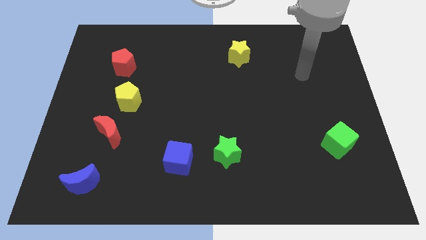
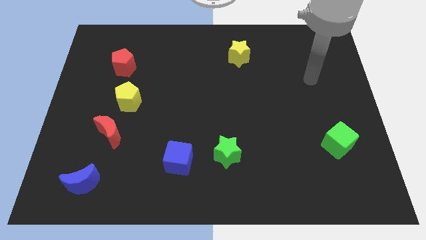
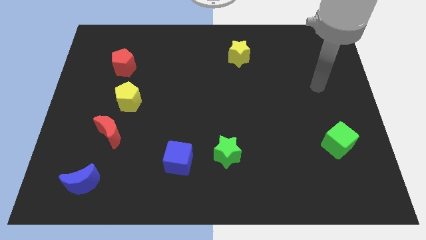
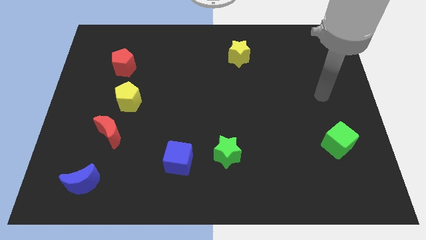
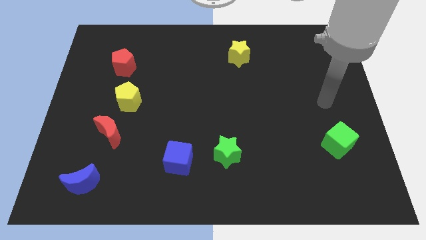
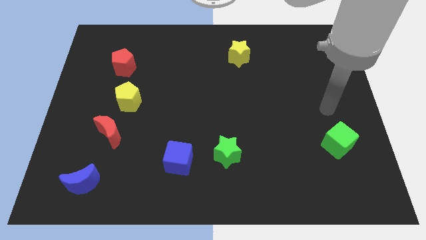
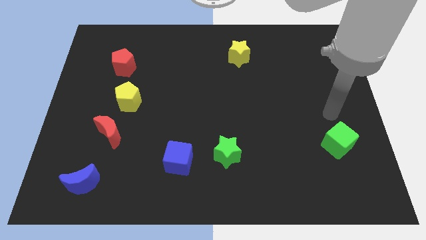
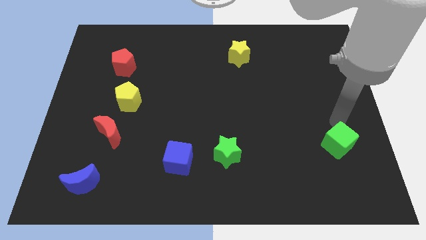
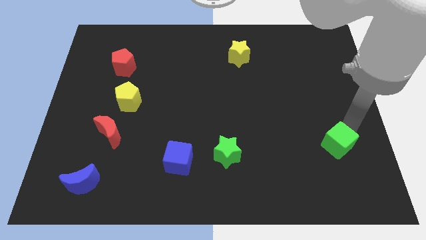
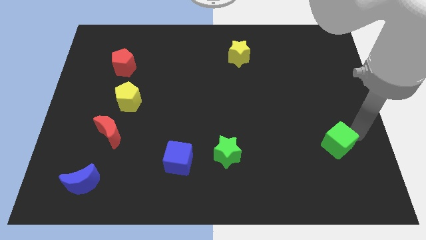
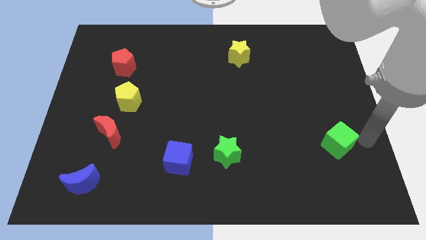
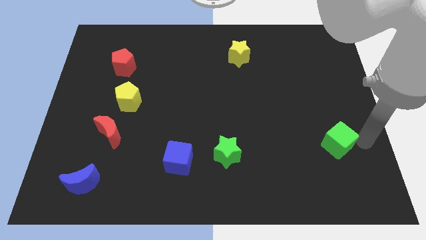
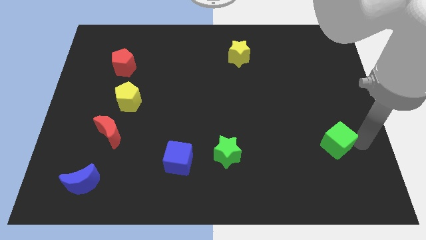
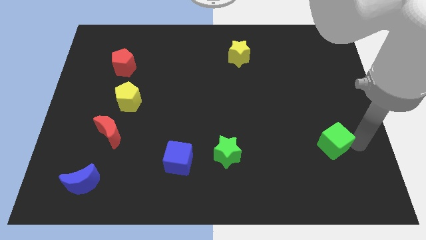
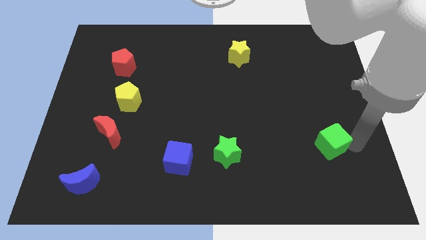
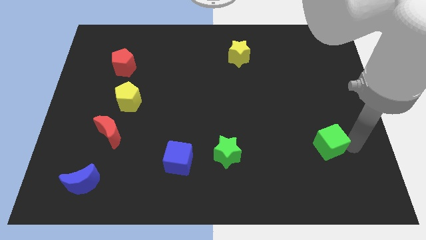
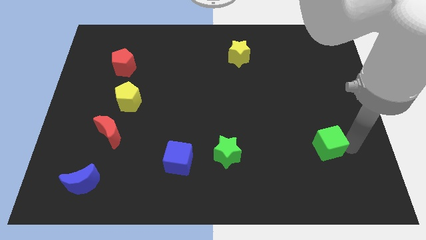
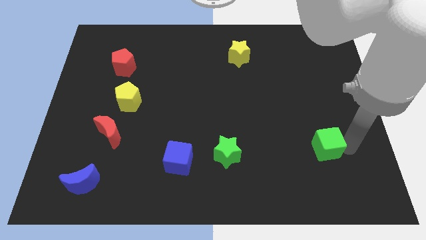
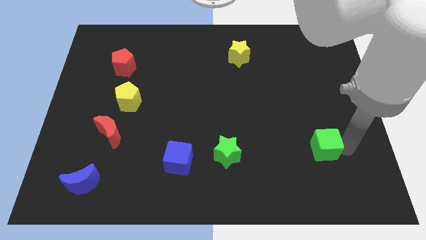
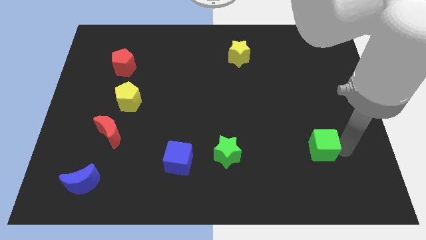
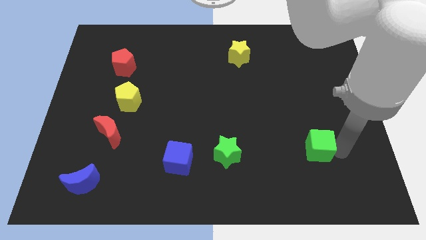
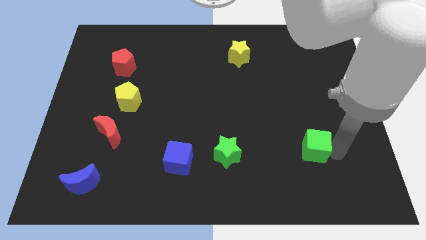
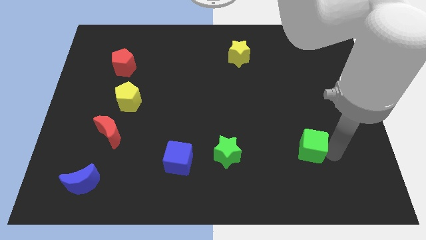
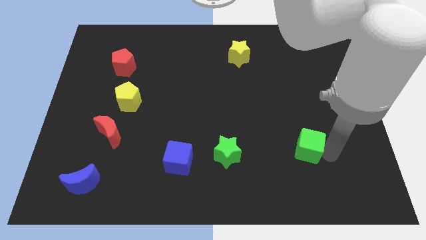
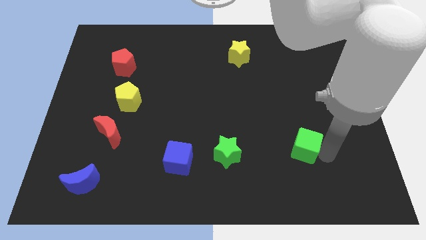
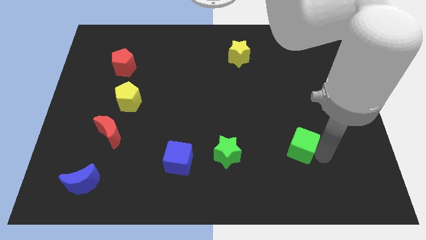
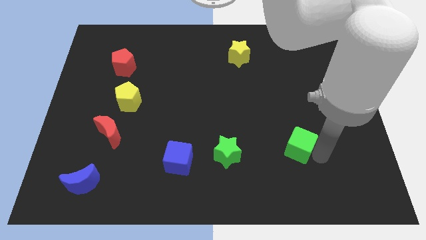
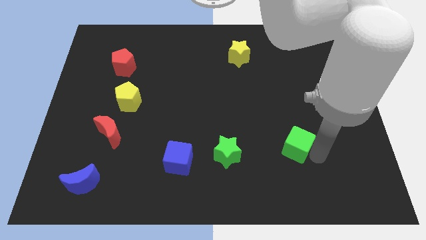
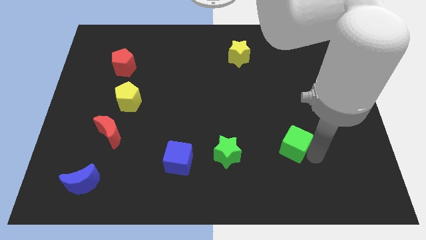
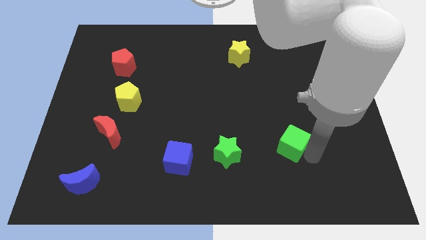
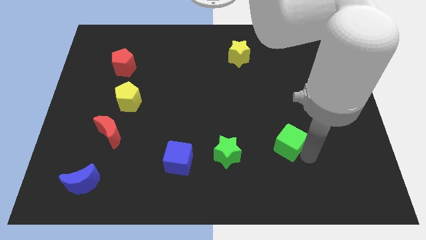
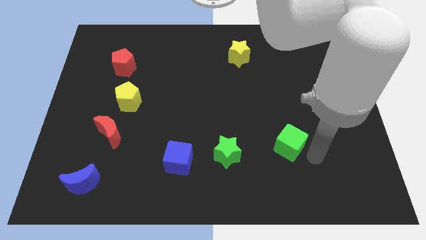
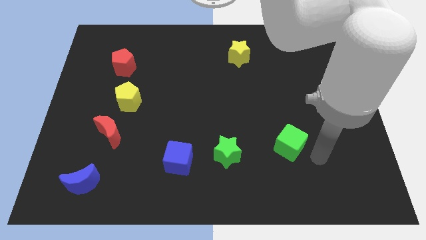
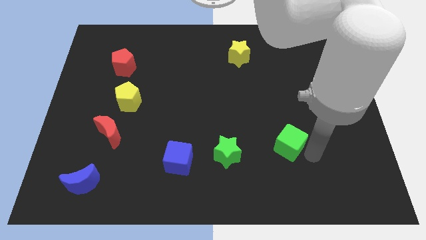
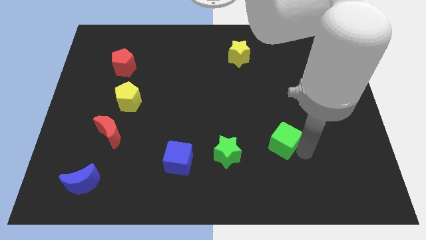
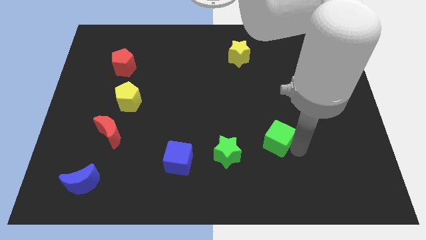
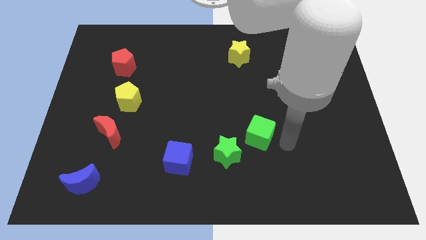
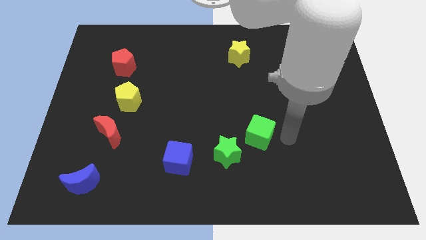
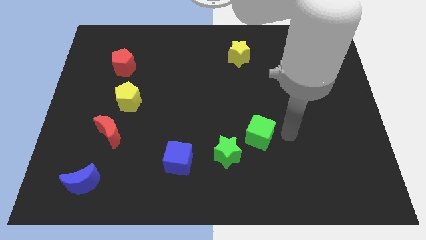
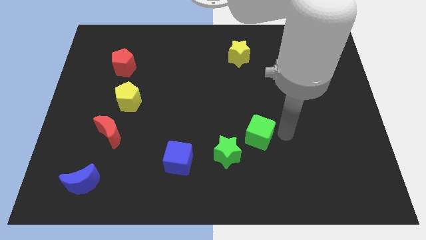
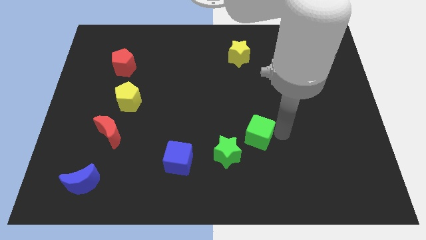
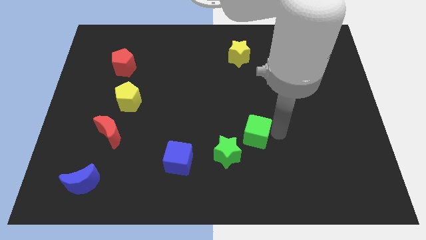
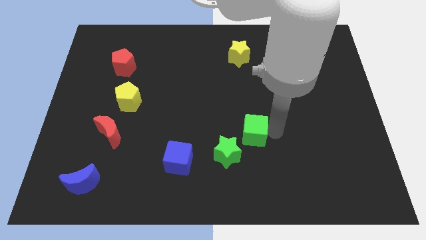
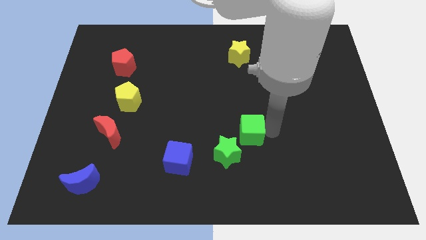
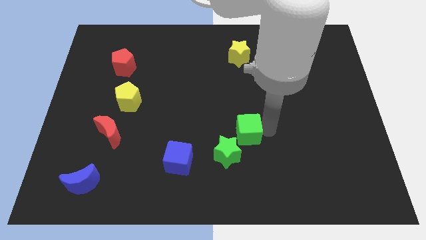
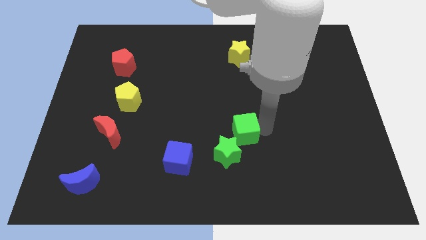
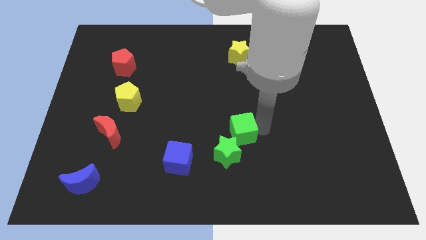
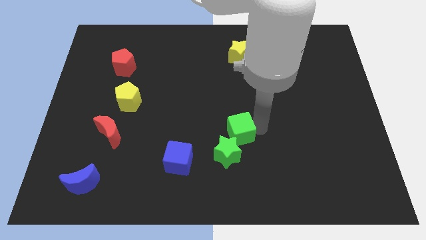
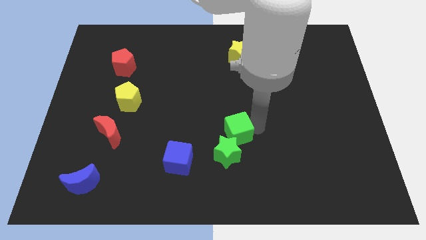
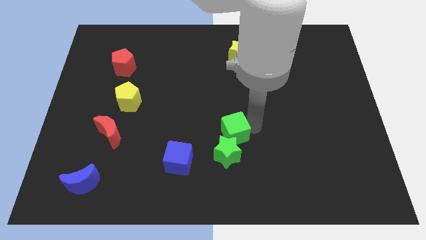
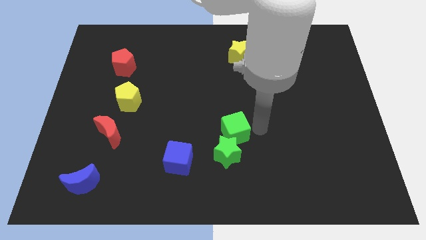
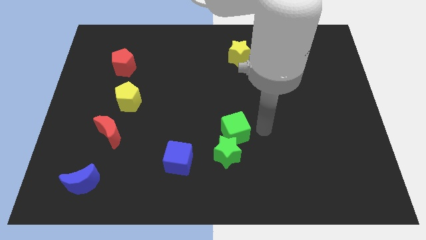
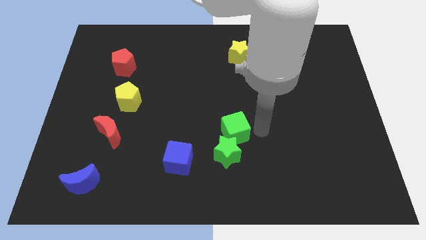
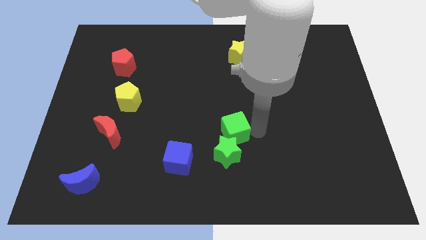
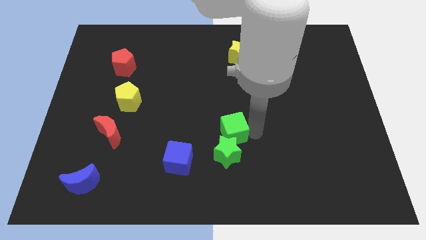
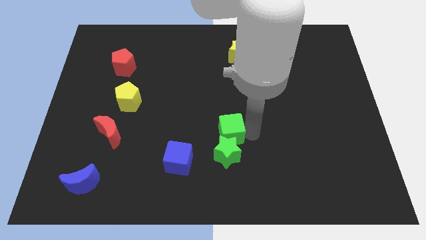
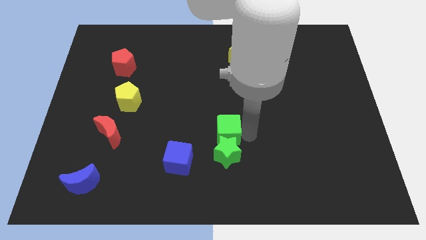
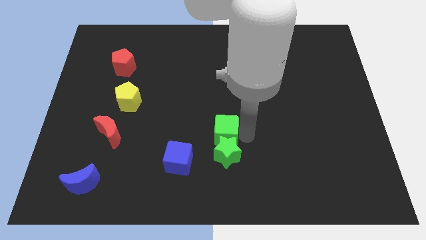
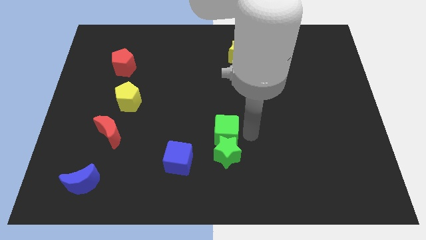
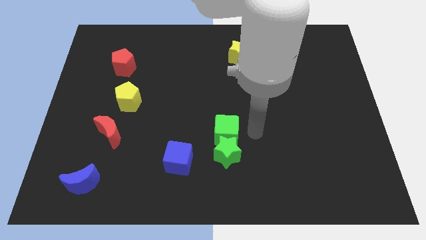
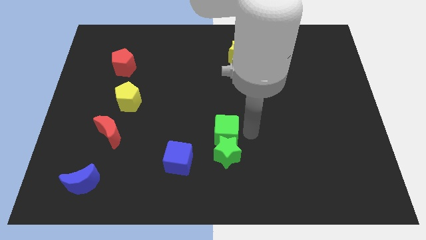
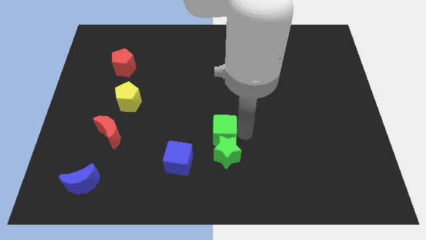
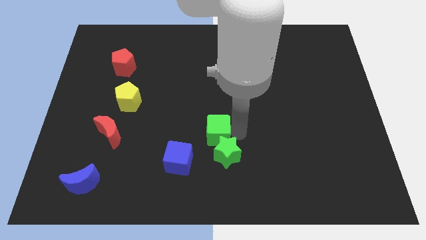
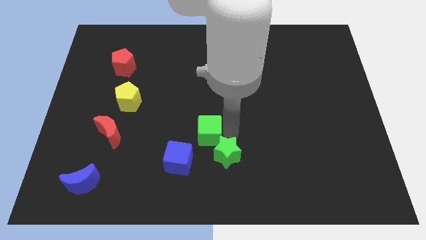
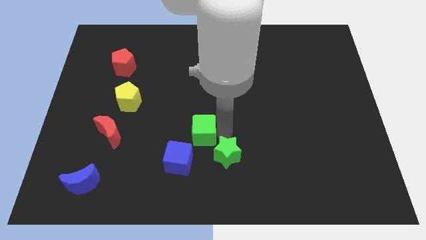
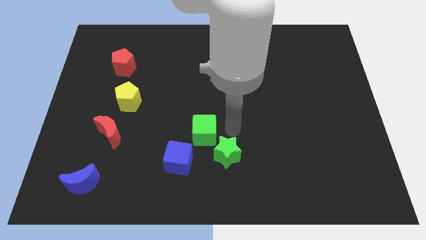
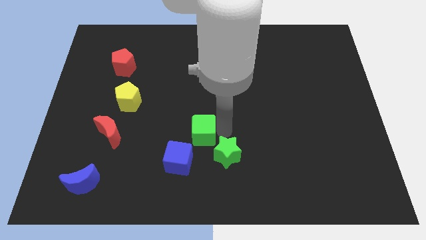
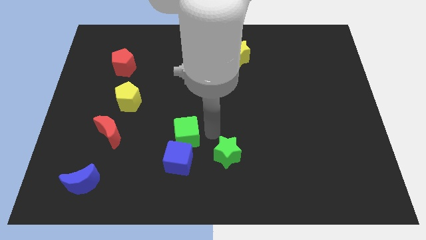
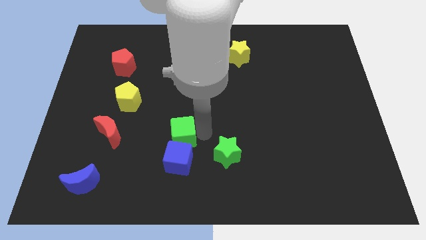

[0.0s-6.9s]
slide the green cube to the top left of the blue cube
